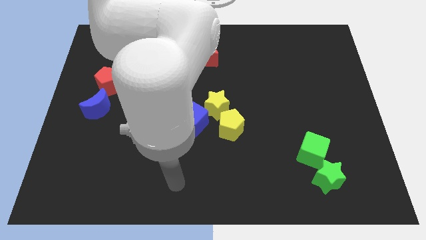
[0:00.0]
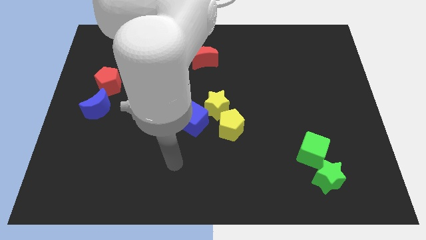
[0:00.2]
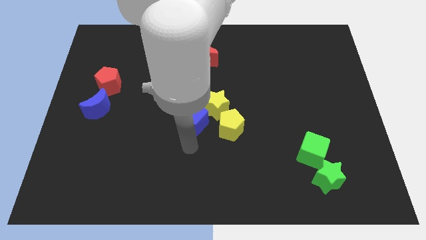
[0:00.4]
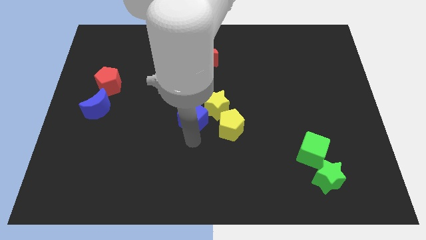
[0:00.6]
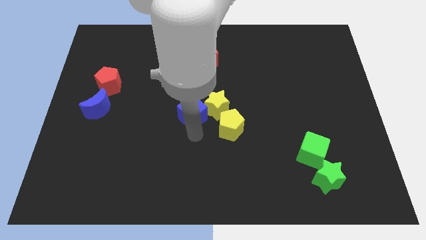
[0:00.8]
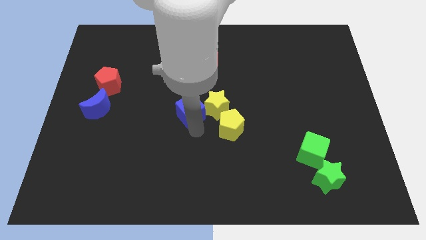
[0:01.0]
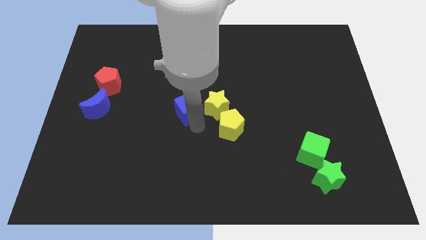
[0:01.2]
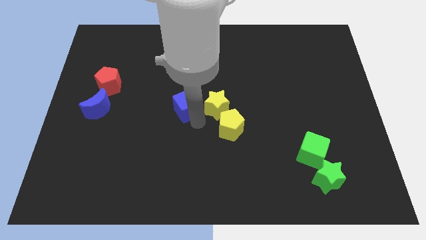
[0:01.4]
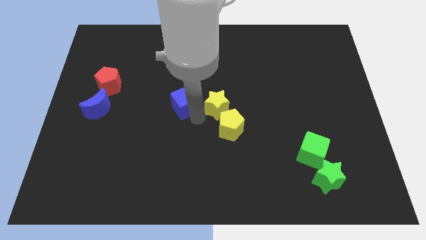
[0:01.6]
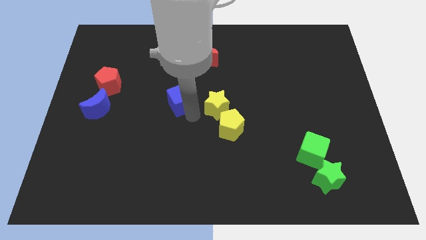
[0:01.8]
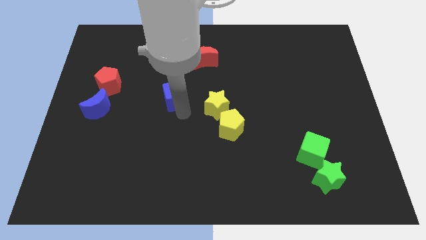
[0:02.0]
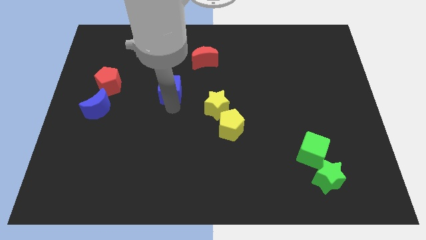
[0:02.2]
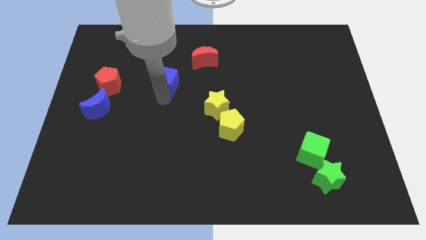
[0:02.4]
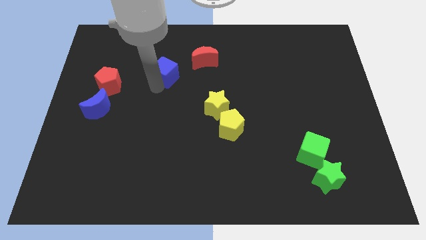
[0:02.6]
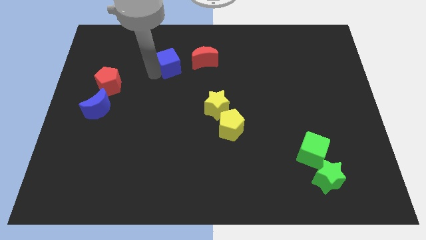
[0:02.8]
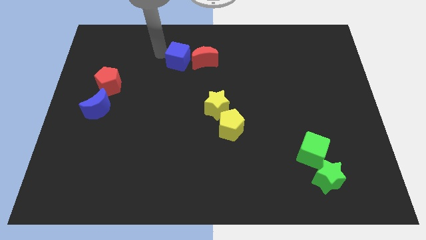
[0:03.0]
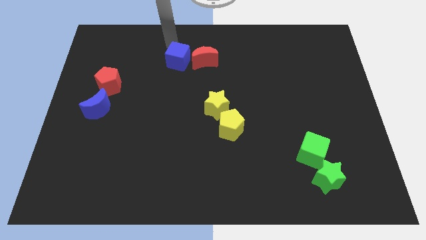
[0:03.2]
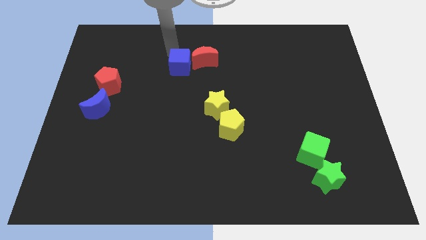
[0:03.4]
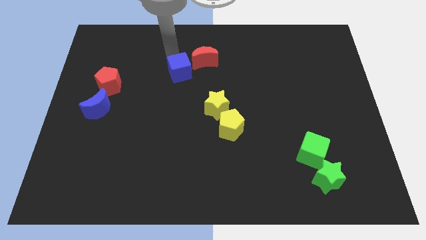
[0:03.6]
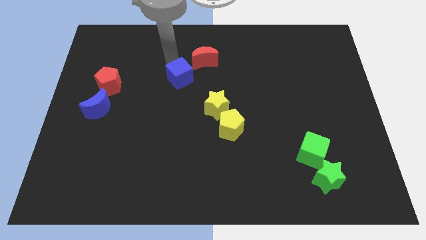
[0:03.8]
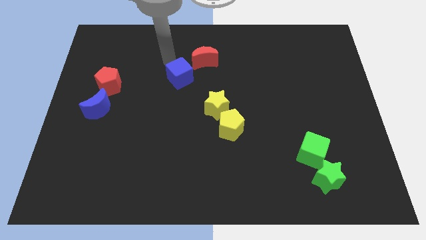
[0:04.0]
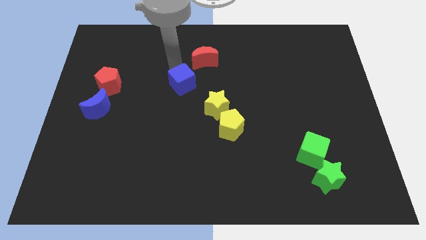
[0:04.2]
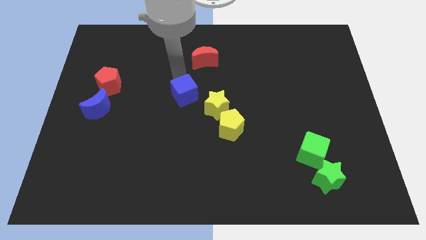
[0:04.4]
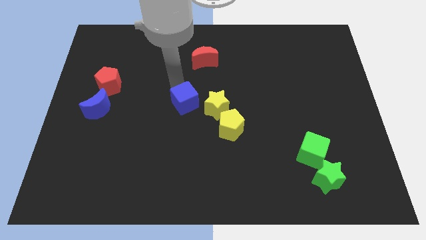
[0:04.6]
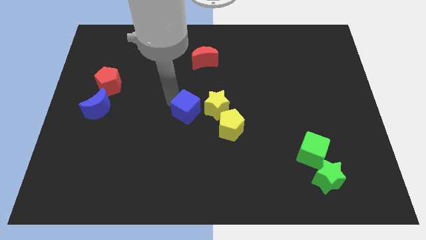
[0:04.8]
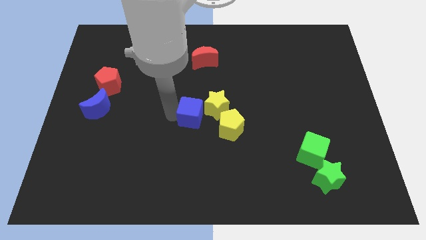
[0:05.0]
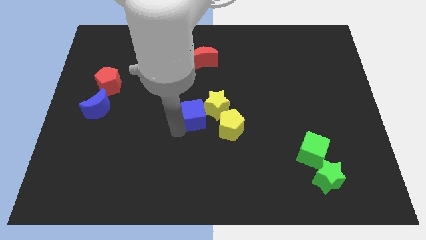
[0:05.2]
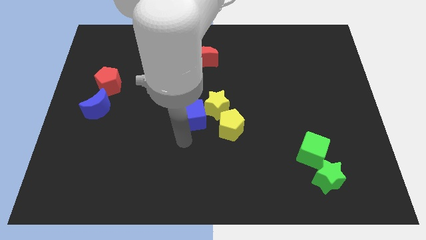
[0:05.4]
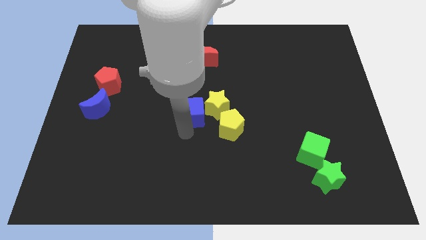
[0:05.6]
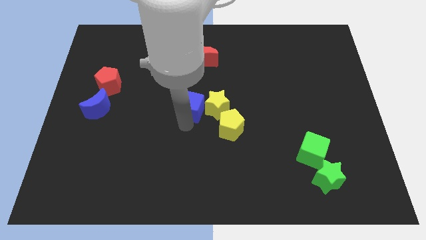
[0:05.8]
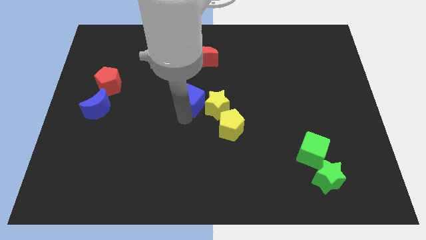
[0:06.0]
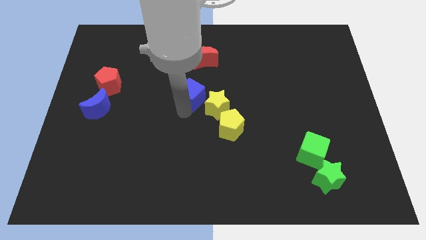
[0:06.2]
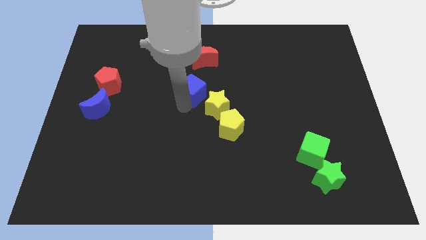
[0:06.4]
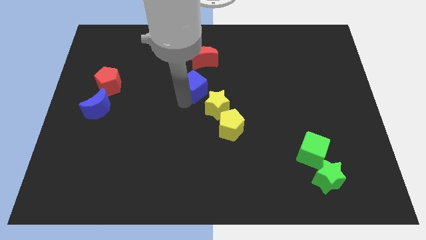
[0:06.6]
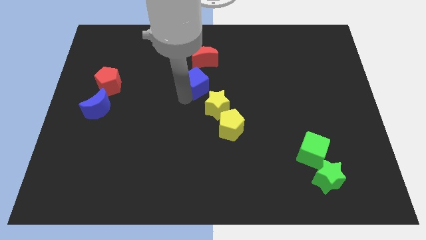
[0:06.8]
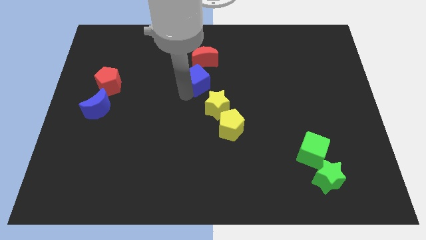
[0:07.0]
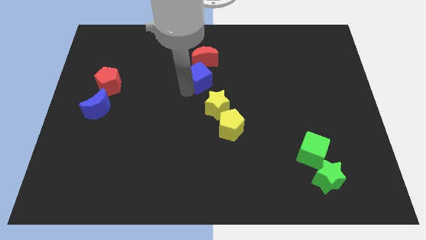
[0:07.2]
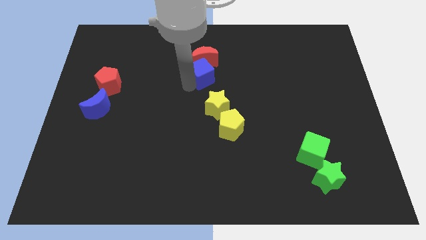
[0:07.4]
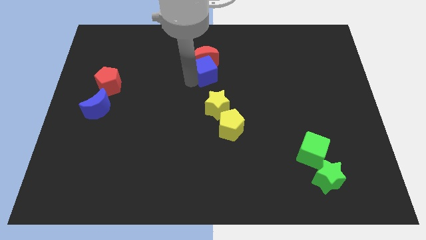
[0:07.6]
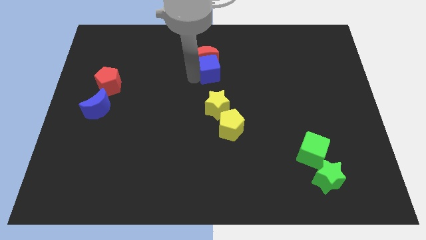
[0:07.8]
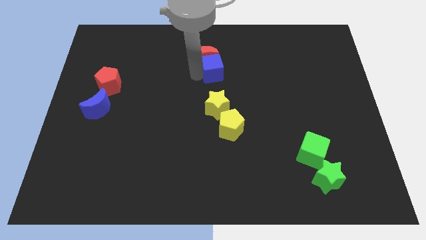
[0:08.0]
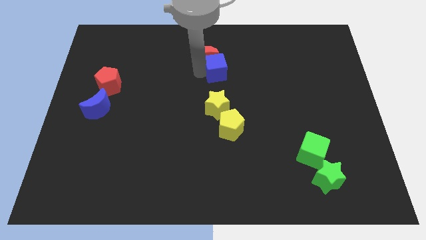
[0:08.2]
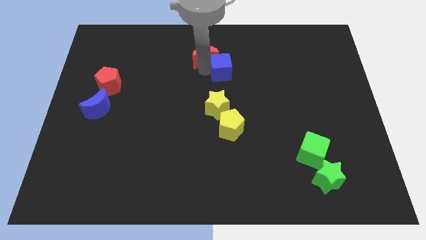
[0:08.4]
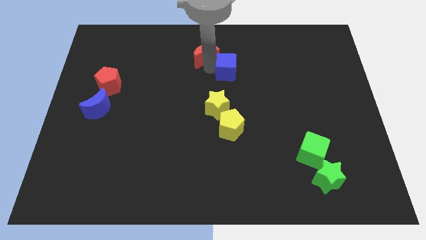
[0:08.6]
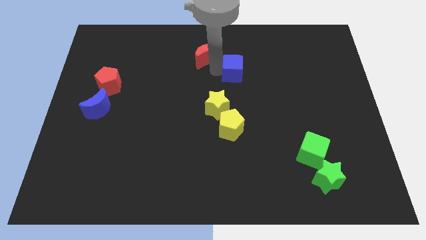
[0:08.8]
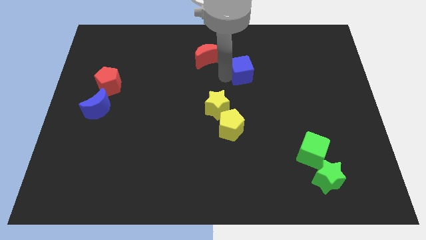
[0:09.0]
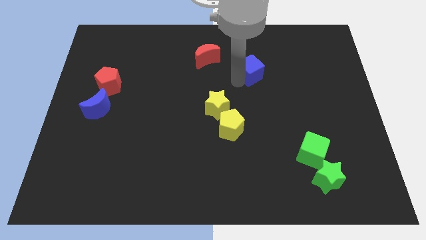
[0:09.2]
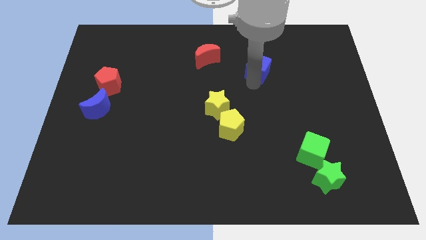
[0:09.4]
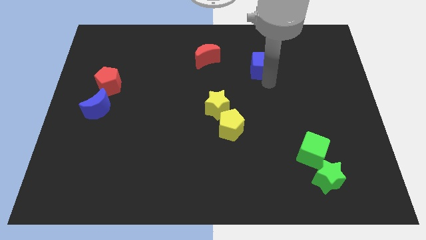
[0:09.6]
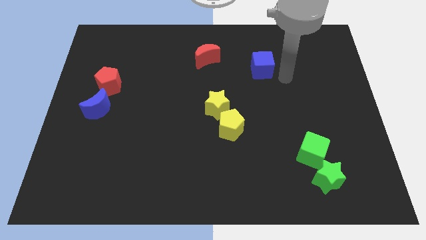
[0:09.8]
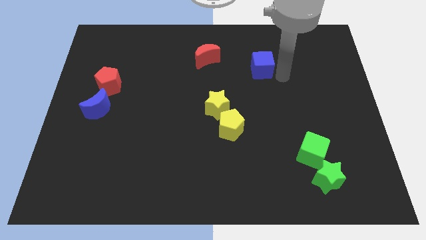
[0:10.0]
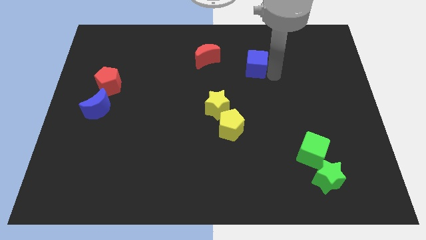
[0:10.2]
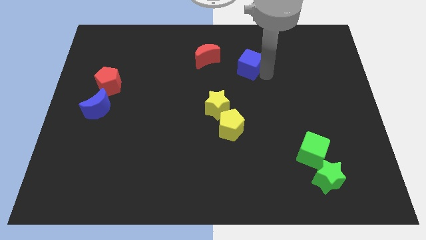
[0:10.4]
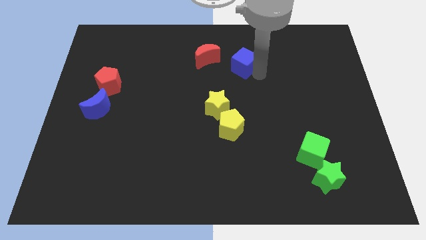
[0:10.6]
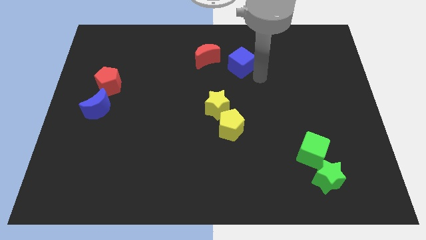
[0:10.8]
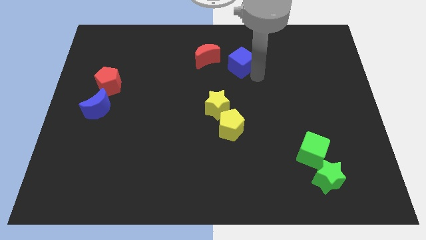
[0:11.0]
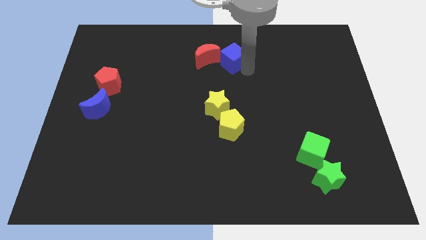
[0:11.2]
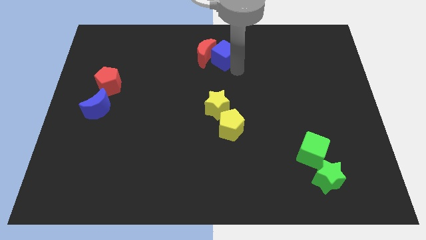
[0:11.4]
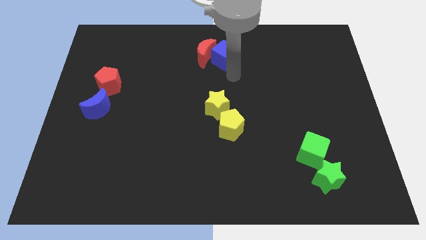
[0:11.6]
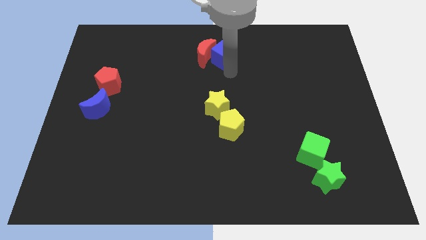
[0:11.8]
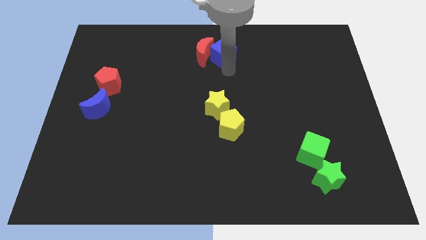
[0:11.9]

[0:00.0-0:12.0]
put the blue cube to the top
